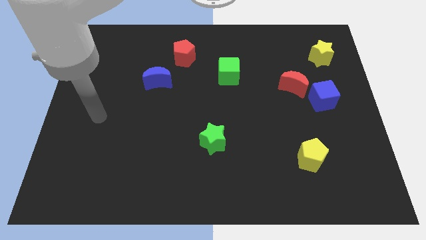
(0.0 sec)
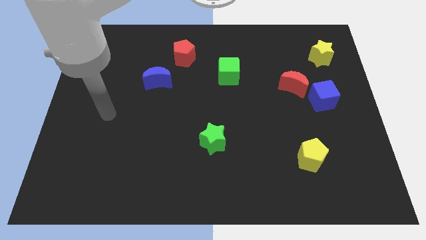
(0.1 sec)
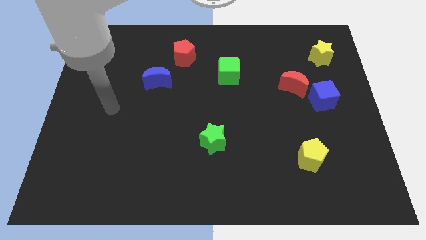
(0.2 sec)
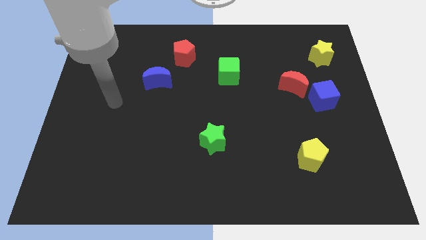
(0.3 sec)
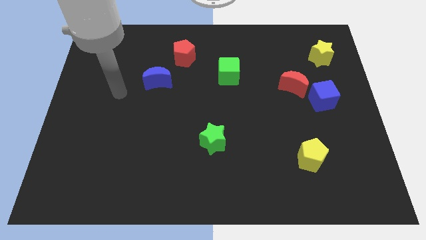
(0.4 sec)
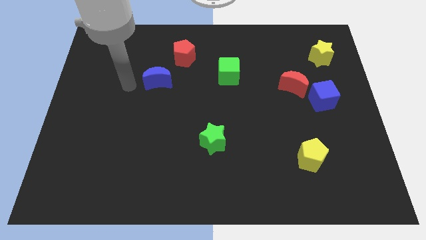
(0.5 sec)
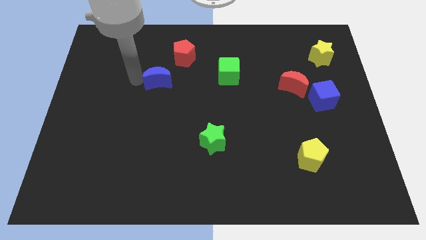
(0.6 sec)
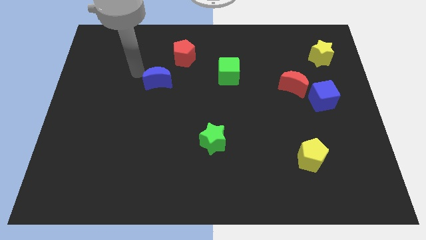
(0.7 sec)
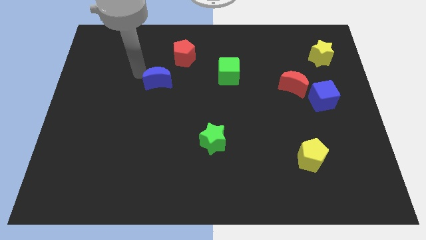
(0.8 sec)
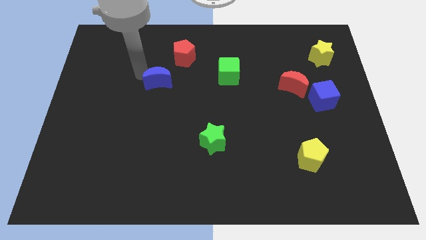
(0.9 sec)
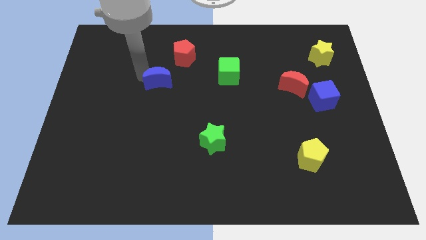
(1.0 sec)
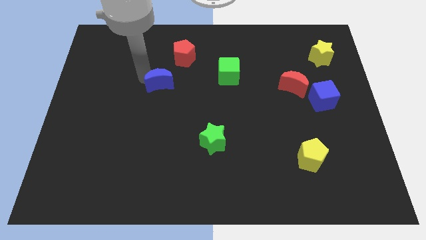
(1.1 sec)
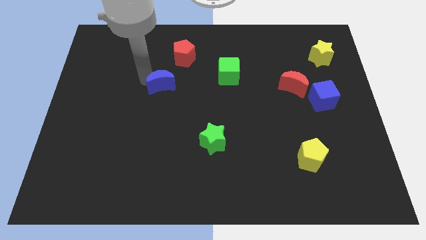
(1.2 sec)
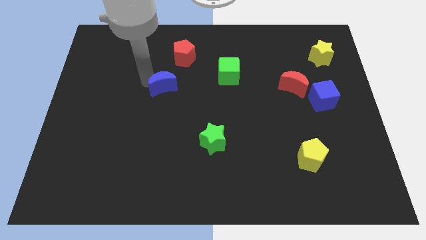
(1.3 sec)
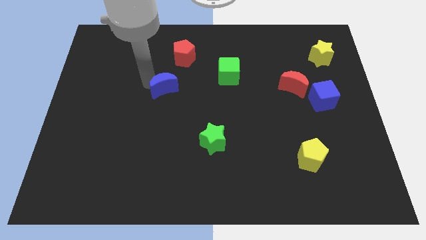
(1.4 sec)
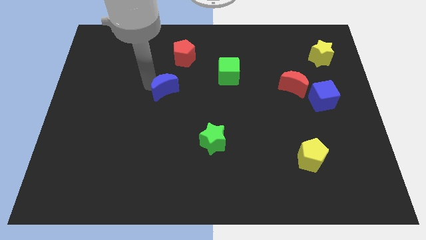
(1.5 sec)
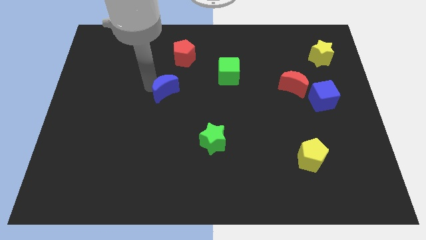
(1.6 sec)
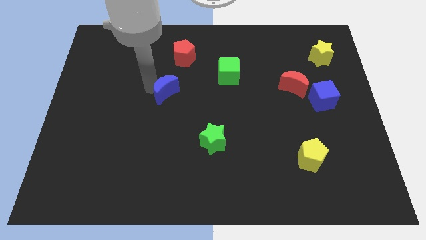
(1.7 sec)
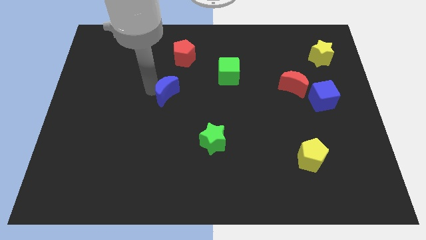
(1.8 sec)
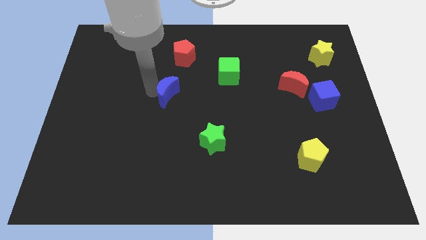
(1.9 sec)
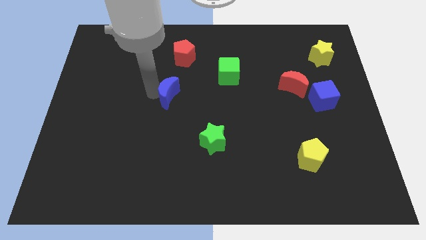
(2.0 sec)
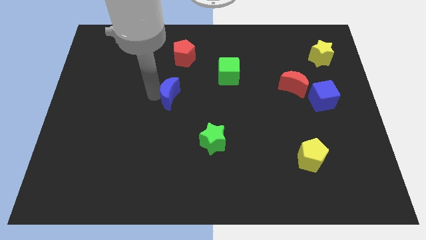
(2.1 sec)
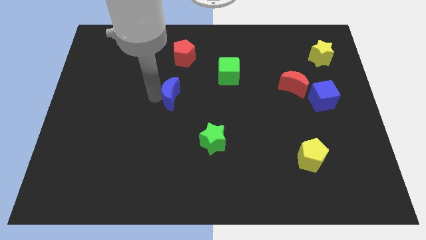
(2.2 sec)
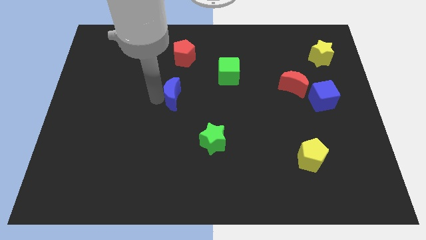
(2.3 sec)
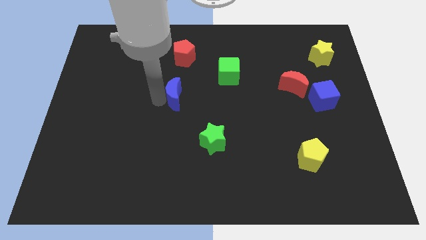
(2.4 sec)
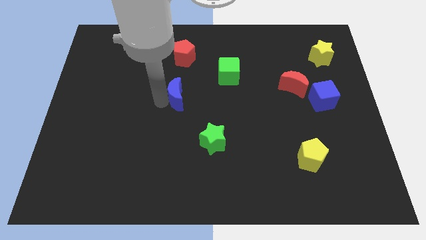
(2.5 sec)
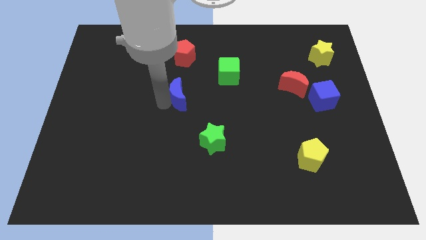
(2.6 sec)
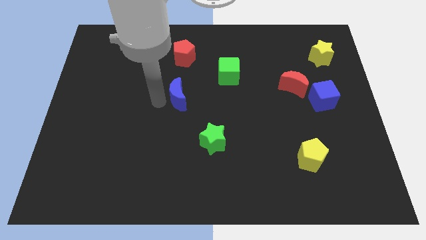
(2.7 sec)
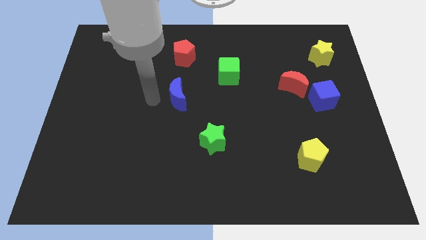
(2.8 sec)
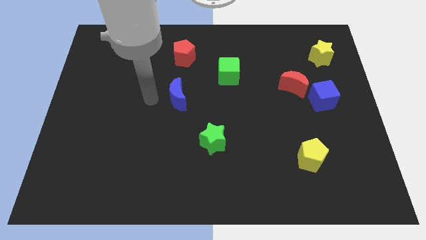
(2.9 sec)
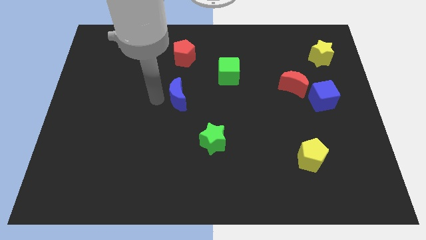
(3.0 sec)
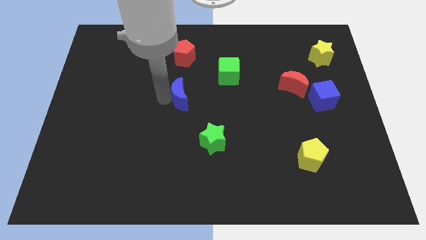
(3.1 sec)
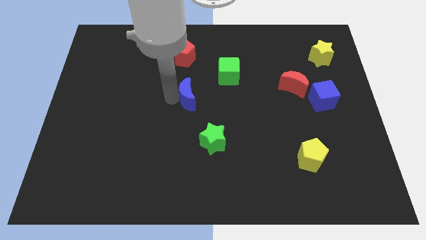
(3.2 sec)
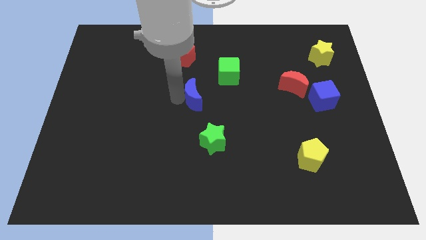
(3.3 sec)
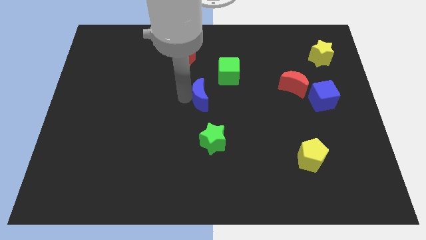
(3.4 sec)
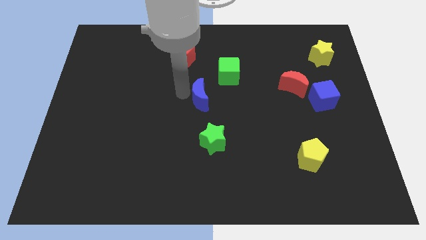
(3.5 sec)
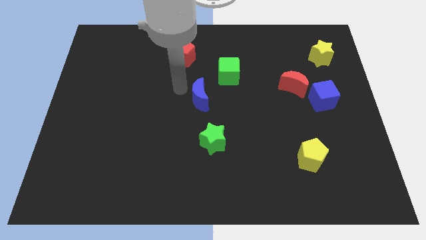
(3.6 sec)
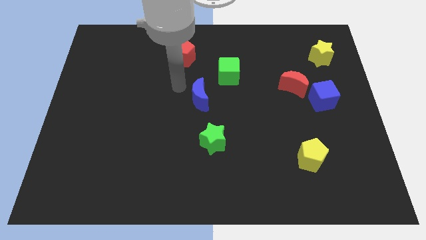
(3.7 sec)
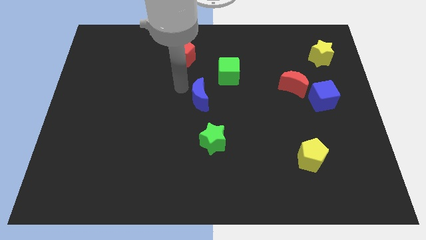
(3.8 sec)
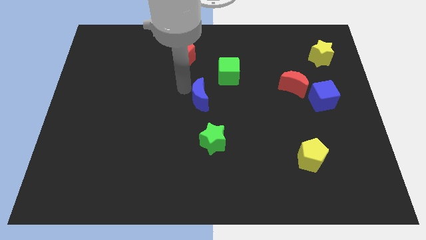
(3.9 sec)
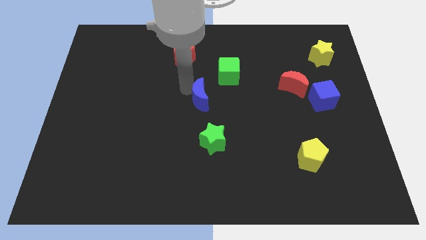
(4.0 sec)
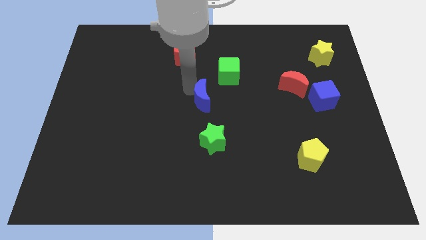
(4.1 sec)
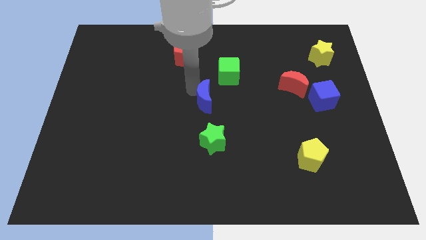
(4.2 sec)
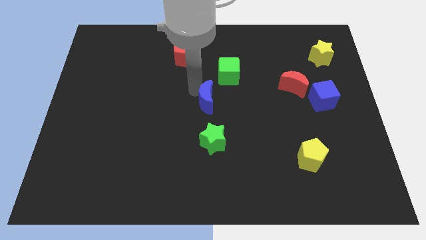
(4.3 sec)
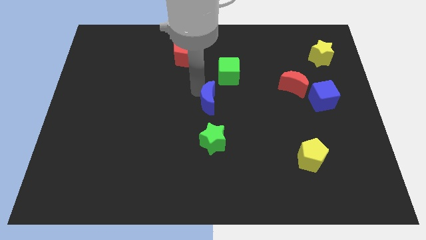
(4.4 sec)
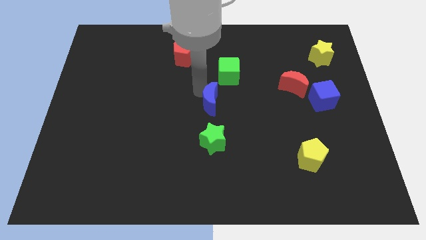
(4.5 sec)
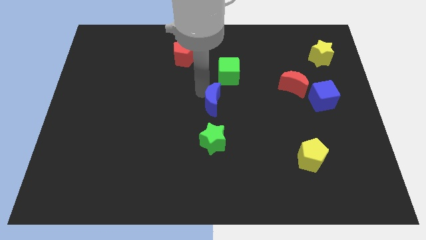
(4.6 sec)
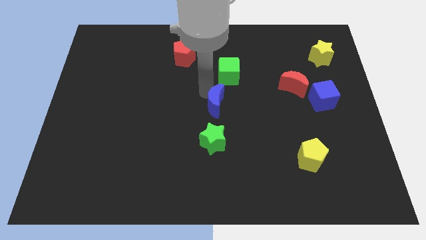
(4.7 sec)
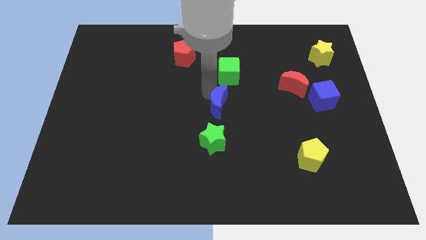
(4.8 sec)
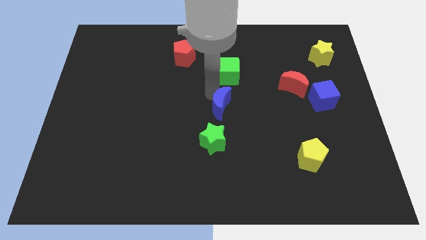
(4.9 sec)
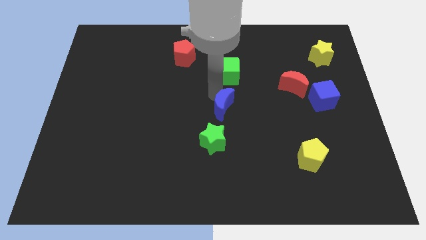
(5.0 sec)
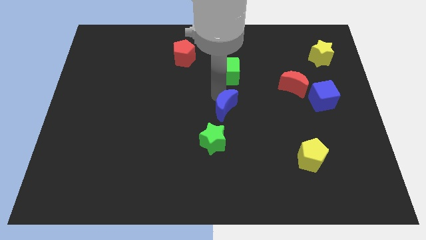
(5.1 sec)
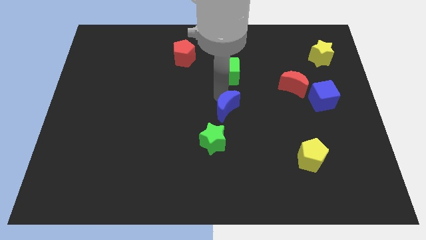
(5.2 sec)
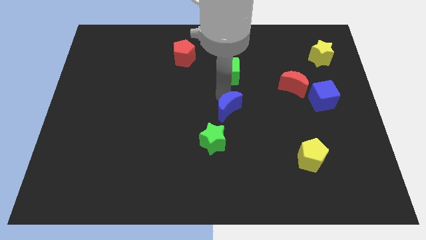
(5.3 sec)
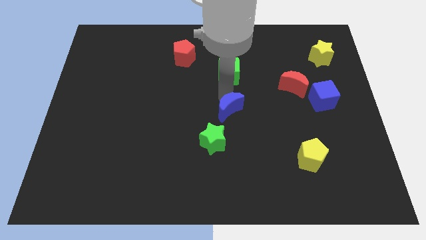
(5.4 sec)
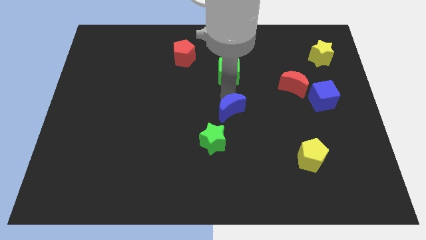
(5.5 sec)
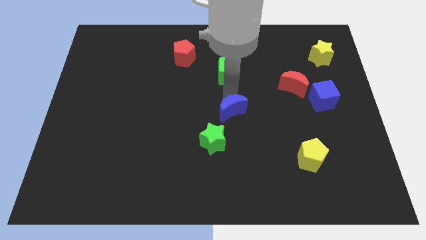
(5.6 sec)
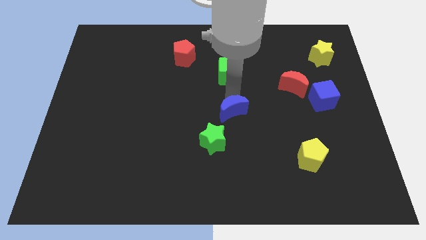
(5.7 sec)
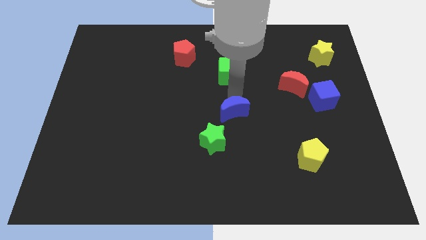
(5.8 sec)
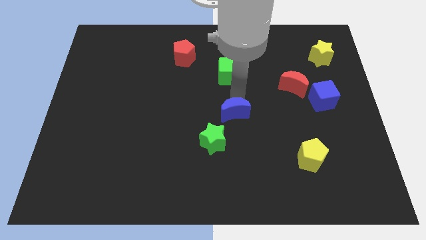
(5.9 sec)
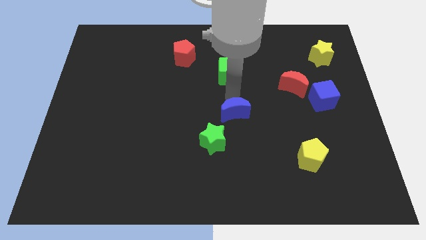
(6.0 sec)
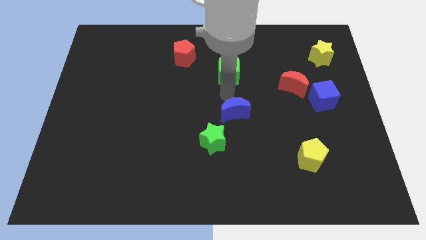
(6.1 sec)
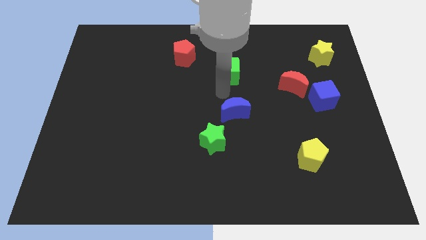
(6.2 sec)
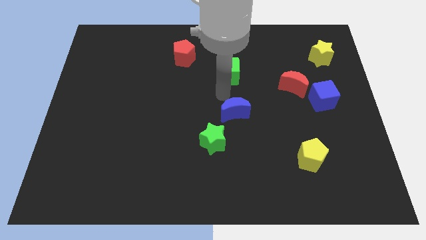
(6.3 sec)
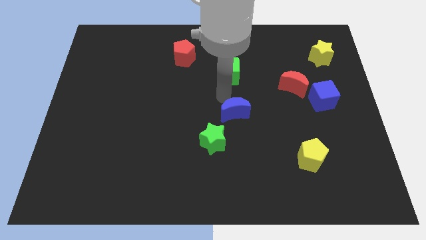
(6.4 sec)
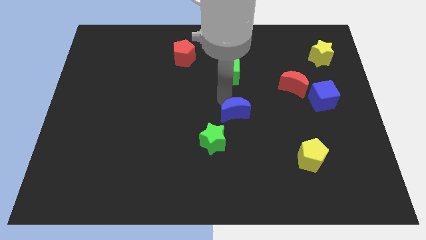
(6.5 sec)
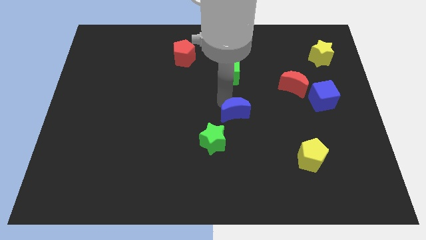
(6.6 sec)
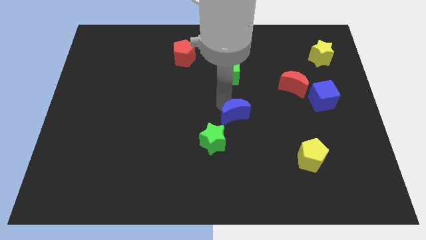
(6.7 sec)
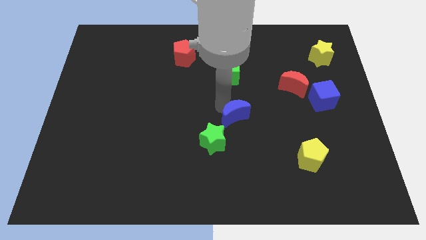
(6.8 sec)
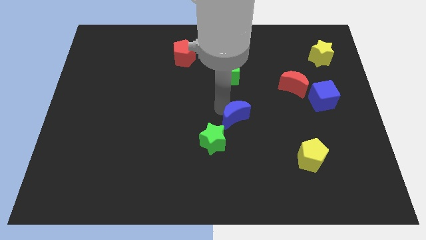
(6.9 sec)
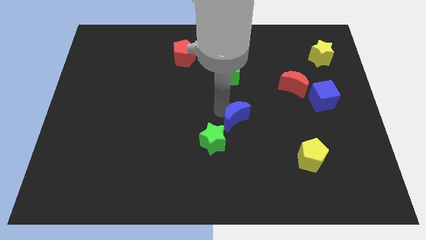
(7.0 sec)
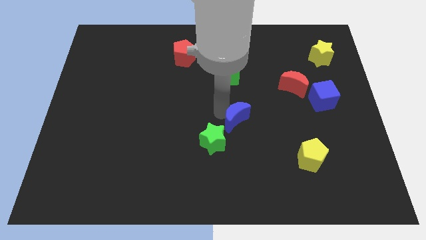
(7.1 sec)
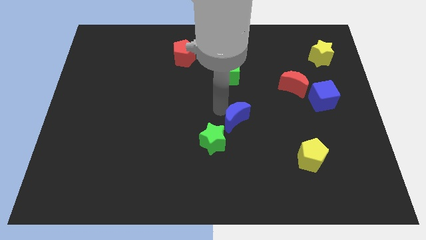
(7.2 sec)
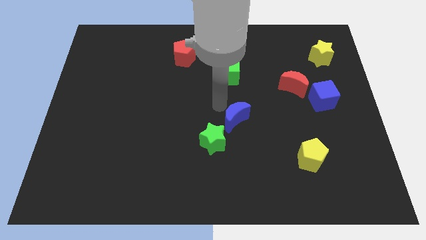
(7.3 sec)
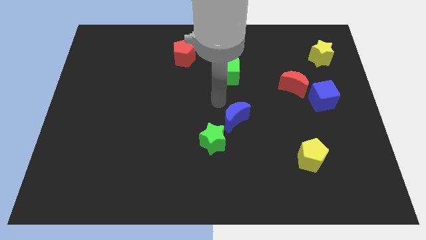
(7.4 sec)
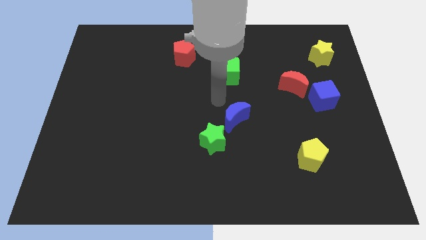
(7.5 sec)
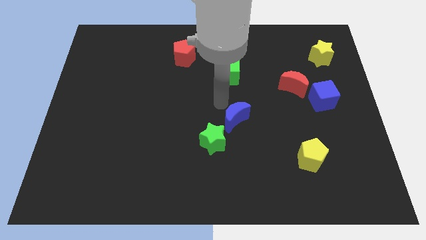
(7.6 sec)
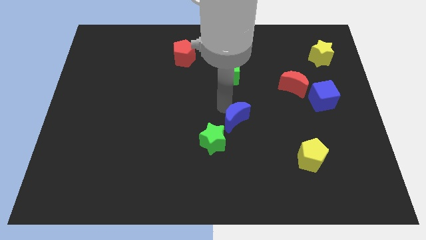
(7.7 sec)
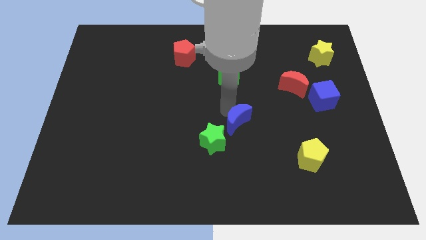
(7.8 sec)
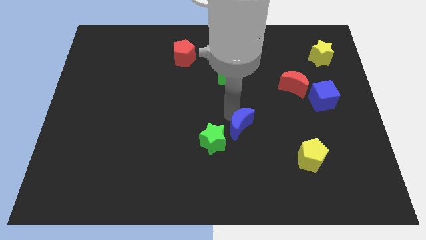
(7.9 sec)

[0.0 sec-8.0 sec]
move the blue moon to the right side of the green star
